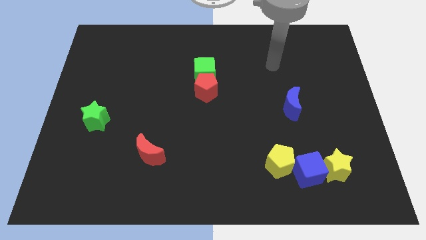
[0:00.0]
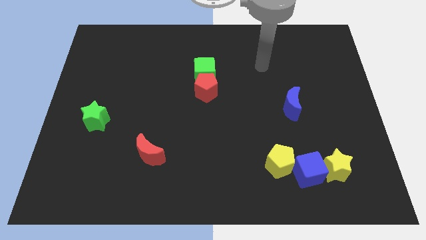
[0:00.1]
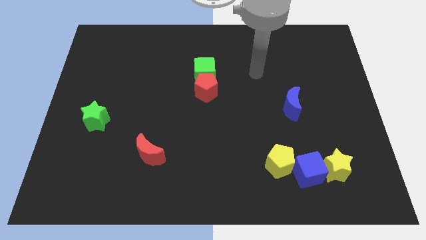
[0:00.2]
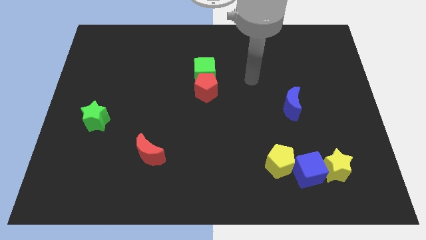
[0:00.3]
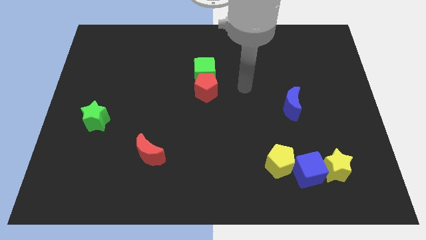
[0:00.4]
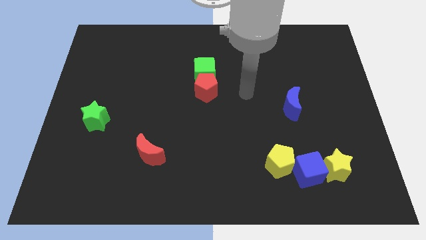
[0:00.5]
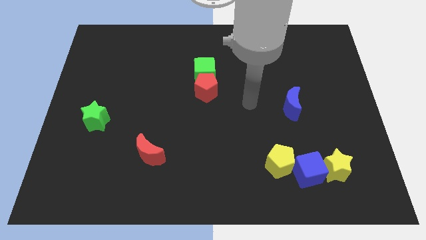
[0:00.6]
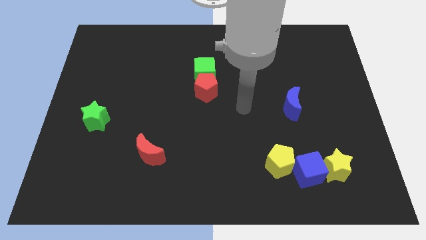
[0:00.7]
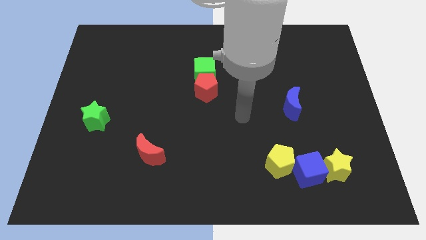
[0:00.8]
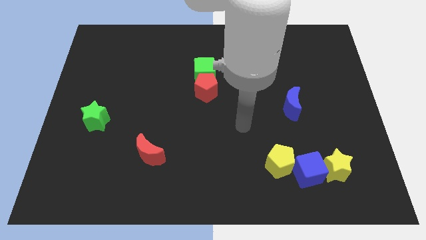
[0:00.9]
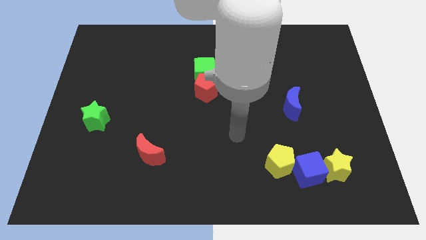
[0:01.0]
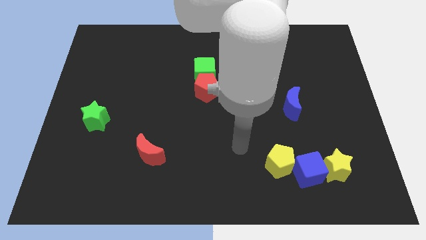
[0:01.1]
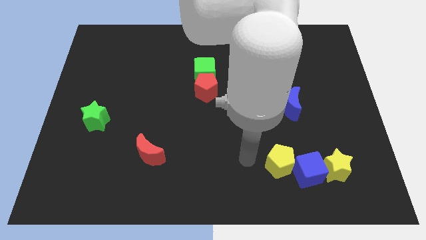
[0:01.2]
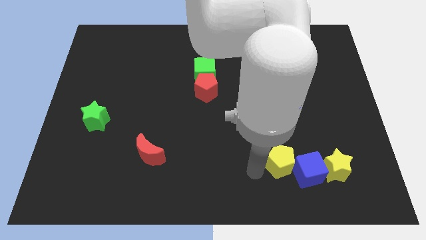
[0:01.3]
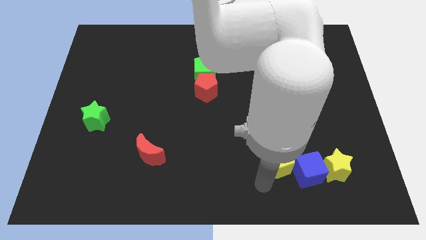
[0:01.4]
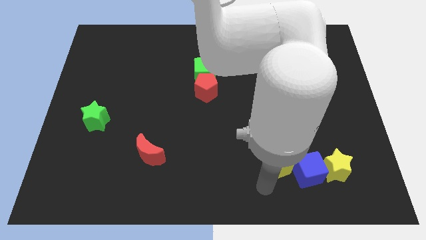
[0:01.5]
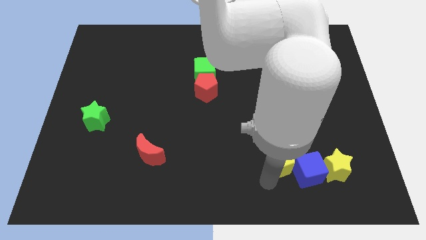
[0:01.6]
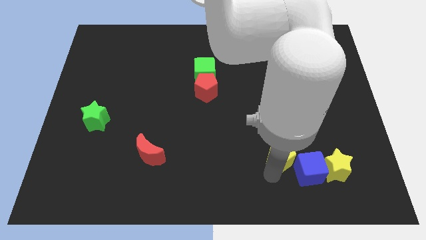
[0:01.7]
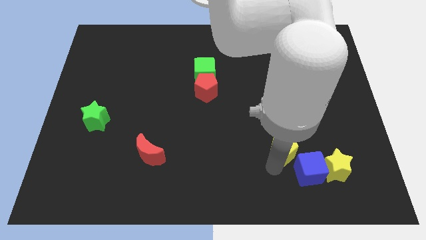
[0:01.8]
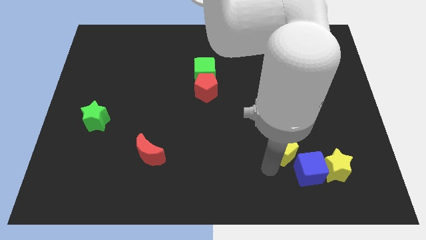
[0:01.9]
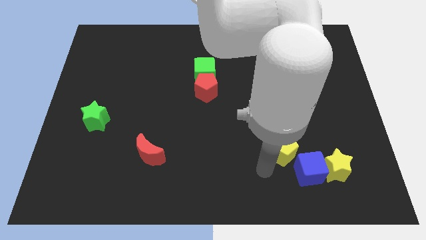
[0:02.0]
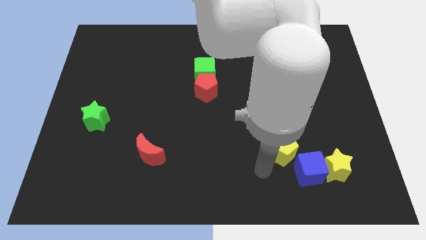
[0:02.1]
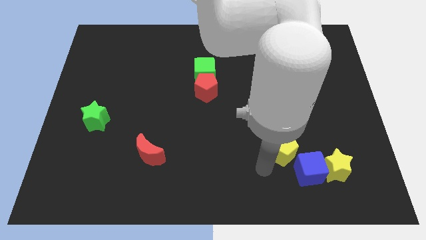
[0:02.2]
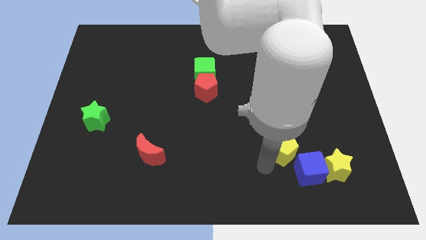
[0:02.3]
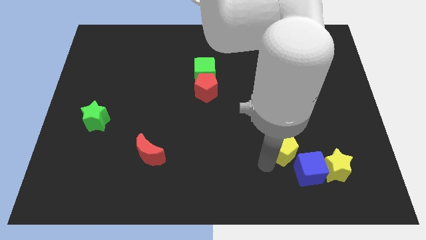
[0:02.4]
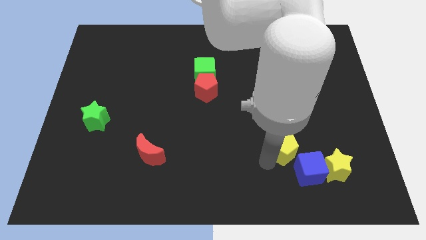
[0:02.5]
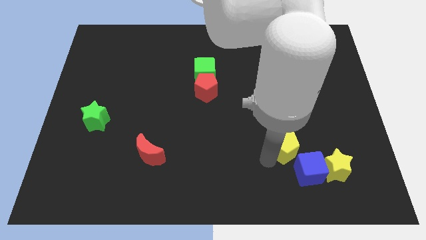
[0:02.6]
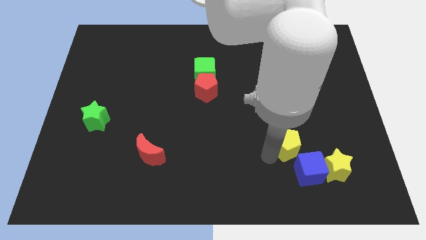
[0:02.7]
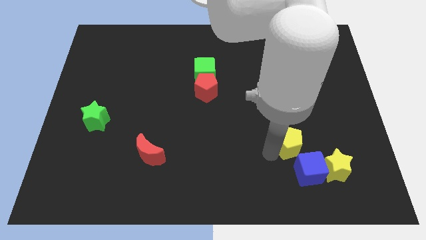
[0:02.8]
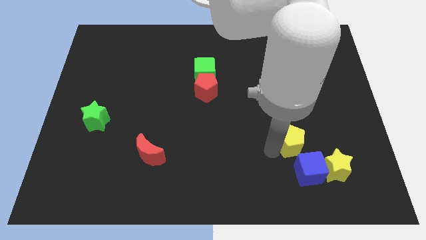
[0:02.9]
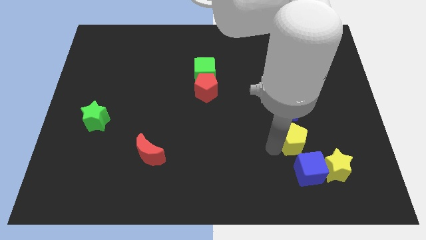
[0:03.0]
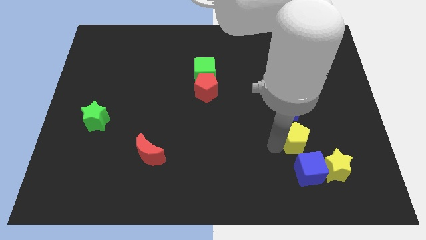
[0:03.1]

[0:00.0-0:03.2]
slide the yellow pentagon somewhat upwards and then right

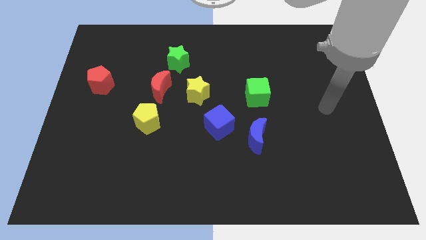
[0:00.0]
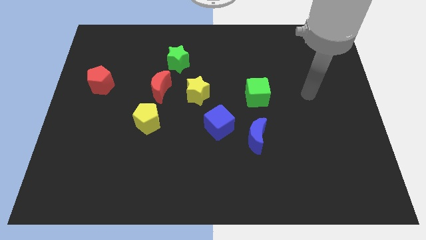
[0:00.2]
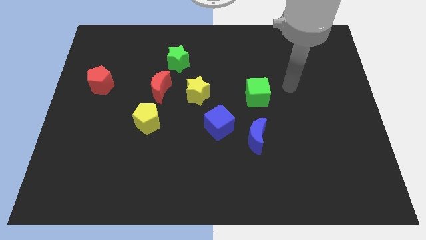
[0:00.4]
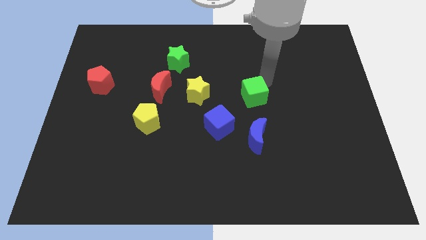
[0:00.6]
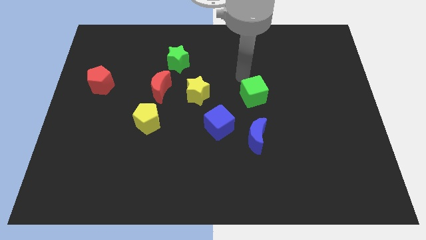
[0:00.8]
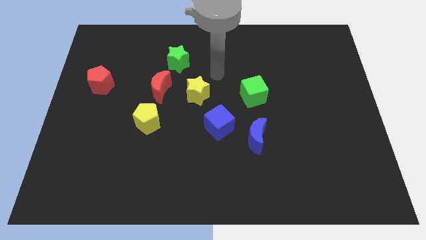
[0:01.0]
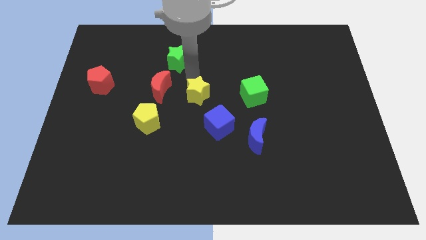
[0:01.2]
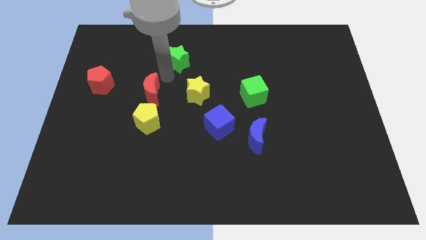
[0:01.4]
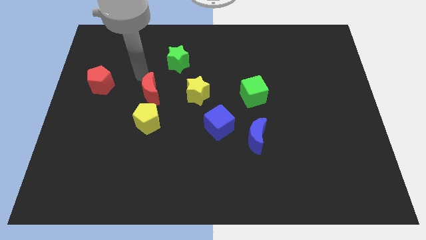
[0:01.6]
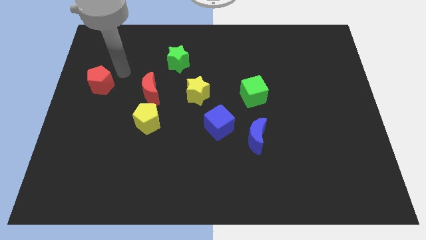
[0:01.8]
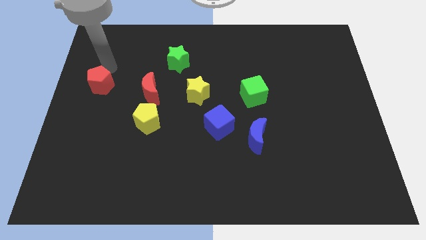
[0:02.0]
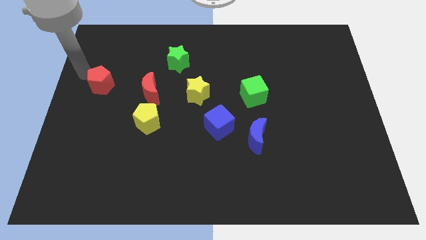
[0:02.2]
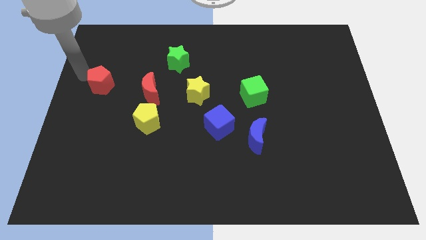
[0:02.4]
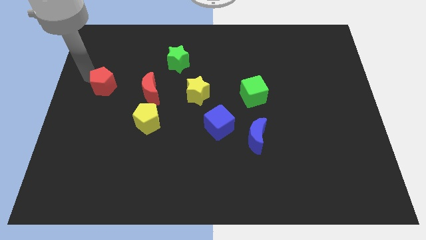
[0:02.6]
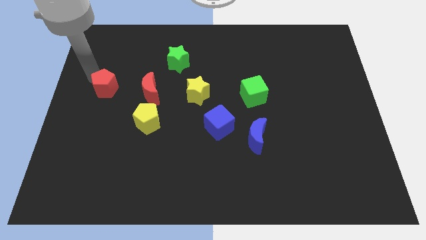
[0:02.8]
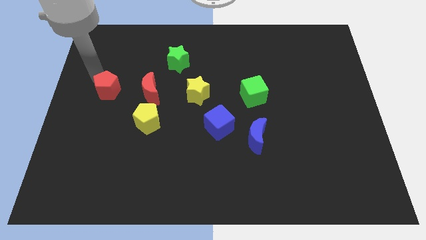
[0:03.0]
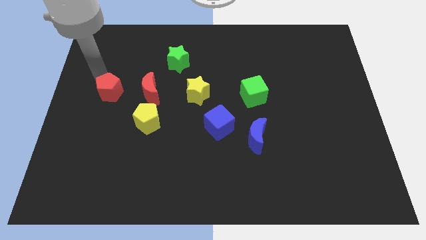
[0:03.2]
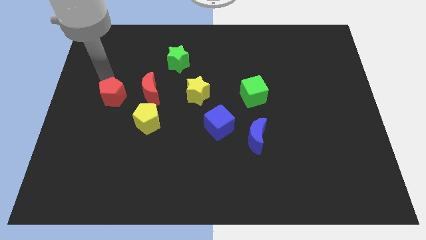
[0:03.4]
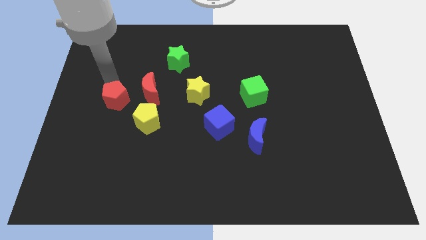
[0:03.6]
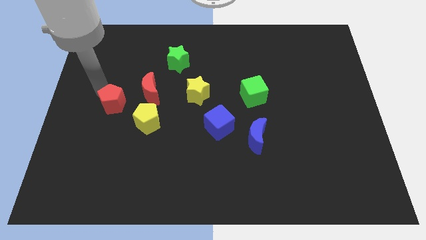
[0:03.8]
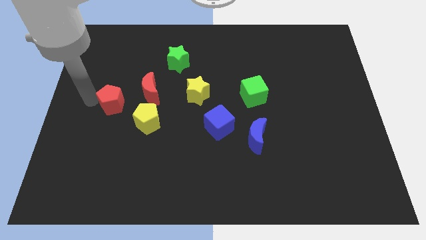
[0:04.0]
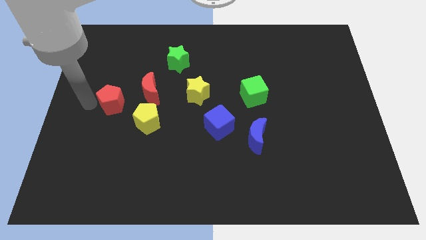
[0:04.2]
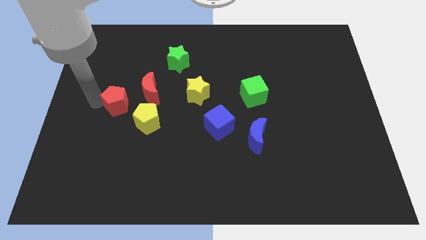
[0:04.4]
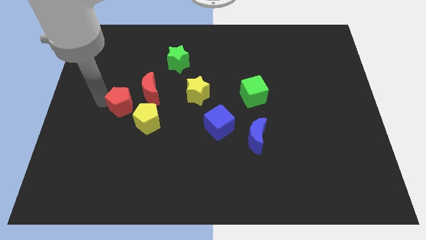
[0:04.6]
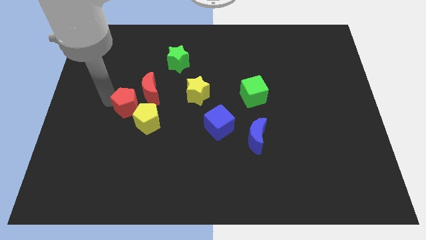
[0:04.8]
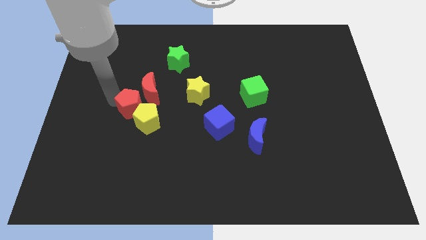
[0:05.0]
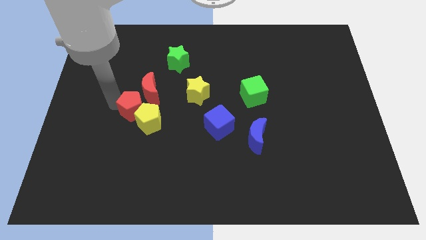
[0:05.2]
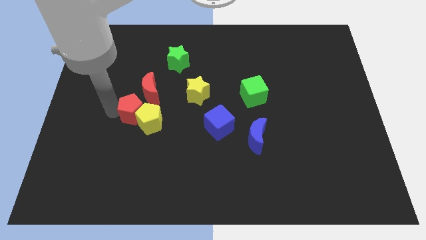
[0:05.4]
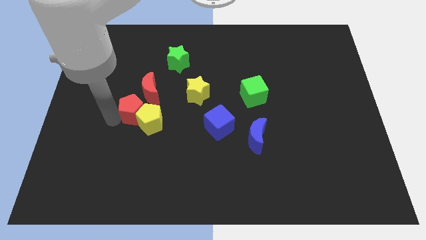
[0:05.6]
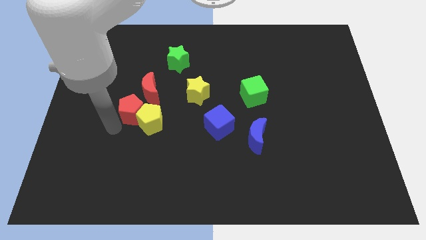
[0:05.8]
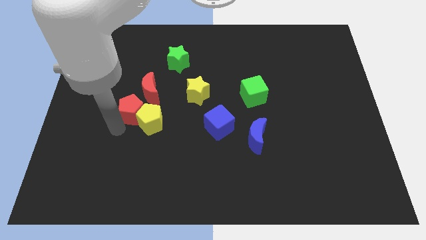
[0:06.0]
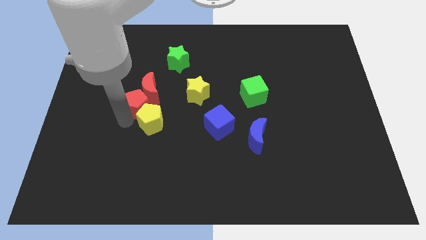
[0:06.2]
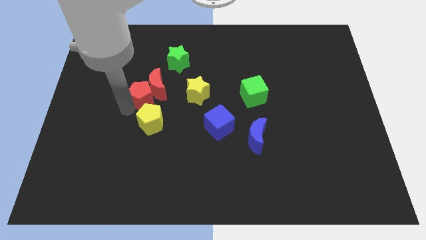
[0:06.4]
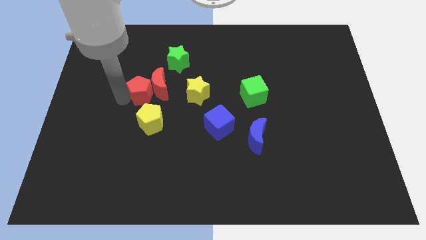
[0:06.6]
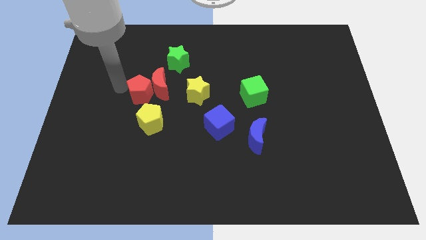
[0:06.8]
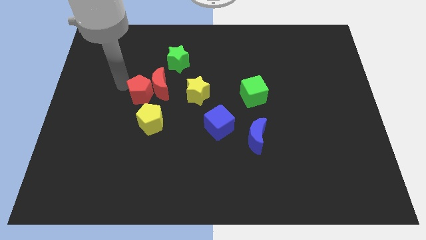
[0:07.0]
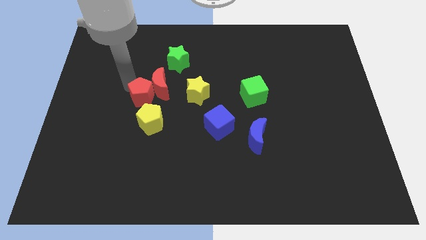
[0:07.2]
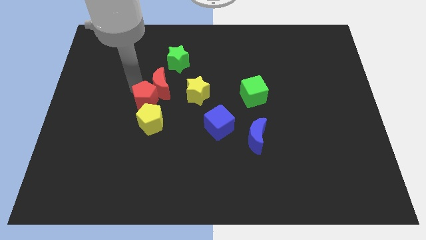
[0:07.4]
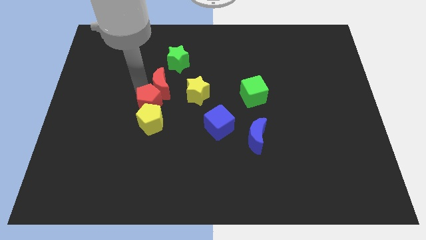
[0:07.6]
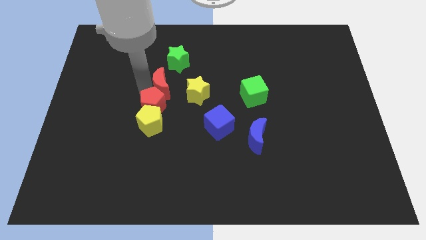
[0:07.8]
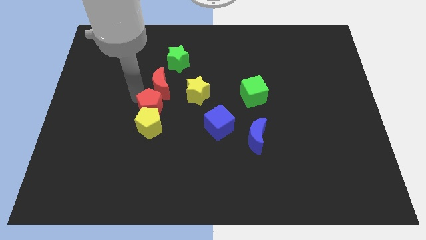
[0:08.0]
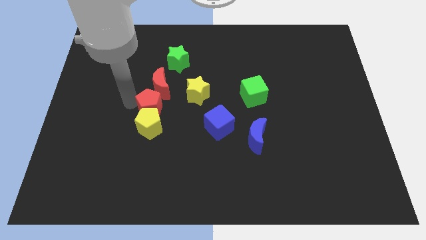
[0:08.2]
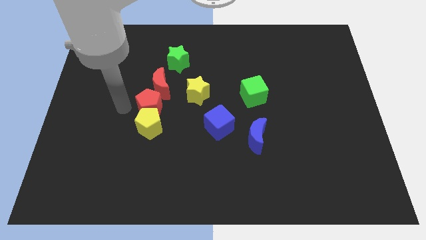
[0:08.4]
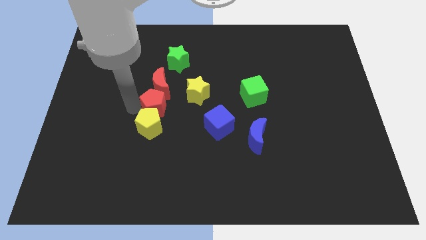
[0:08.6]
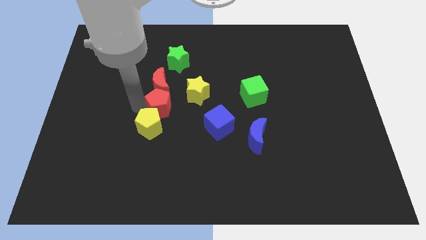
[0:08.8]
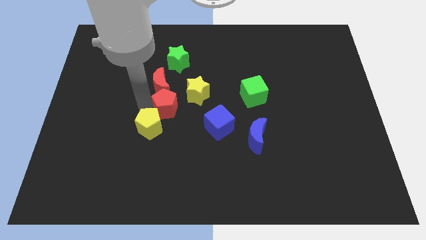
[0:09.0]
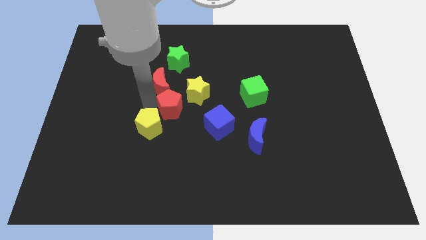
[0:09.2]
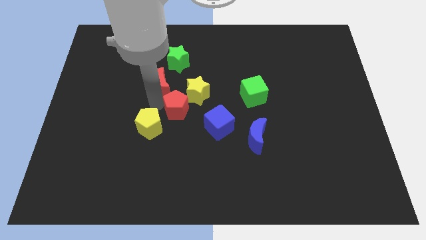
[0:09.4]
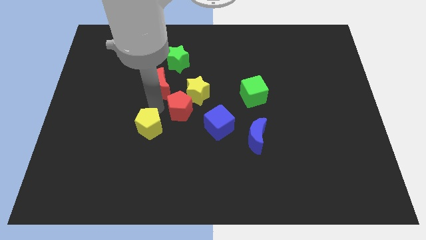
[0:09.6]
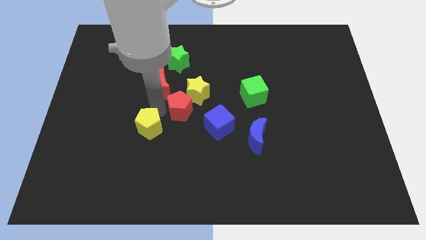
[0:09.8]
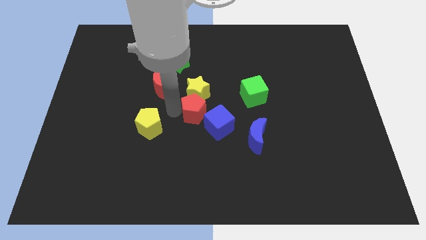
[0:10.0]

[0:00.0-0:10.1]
move the red pentagon to the right
